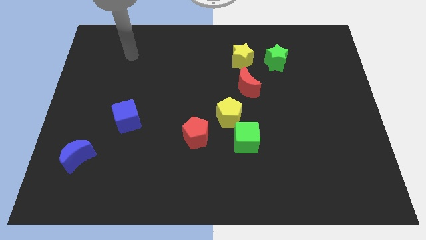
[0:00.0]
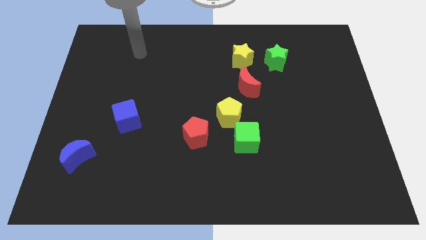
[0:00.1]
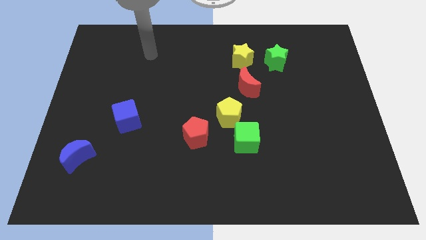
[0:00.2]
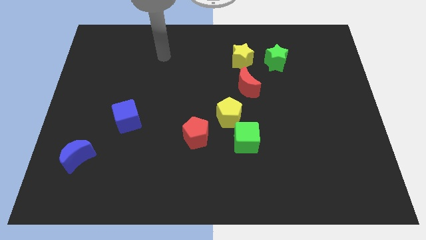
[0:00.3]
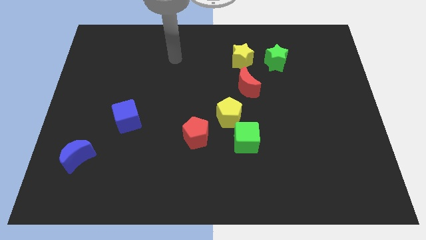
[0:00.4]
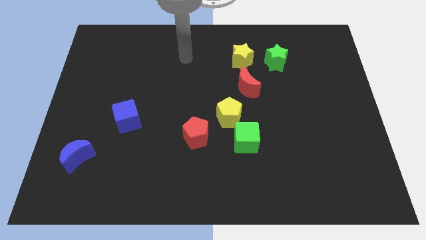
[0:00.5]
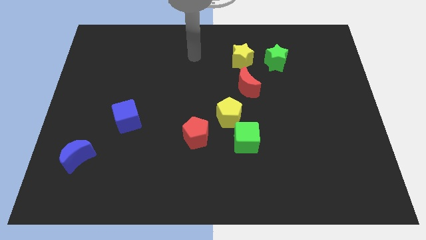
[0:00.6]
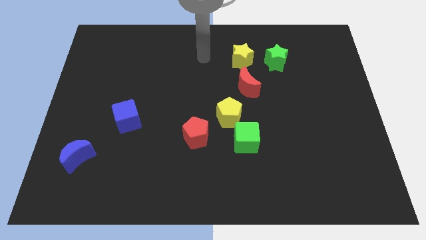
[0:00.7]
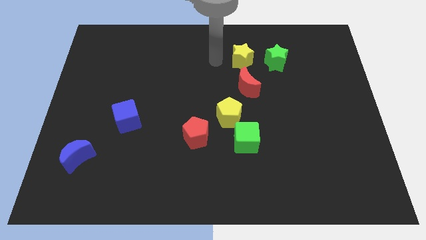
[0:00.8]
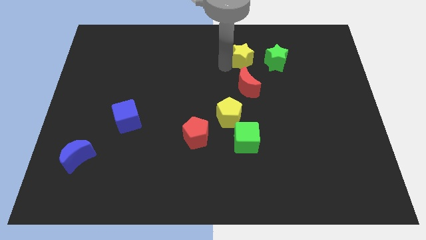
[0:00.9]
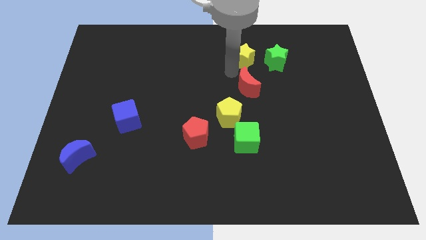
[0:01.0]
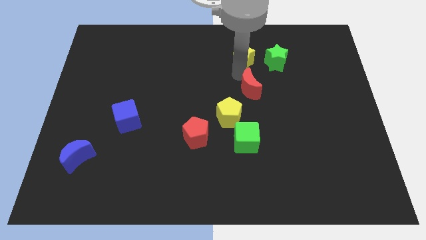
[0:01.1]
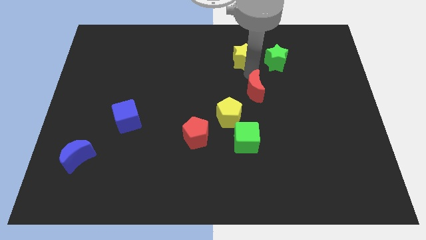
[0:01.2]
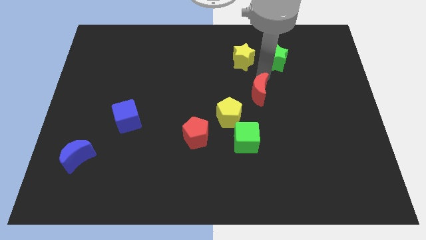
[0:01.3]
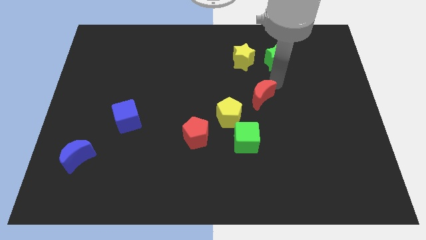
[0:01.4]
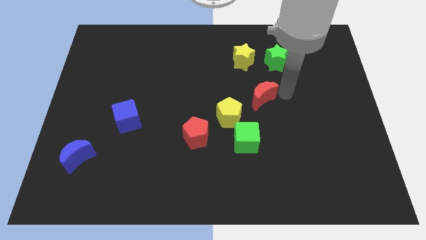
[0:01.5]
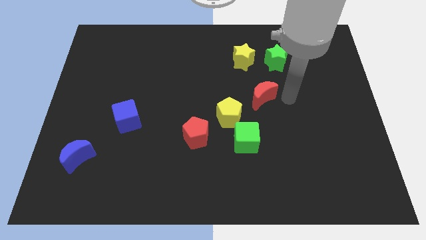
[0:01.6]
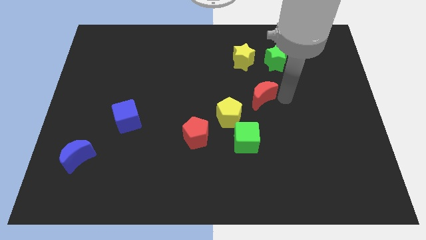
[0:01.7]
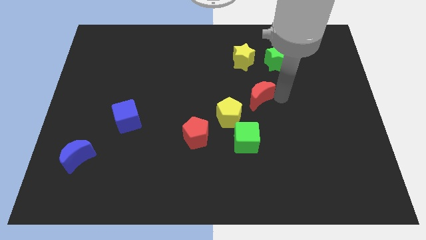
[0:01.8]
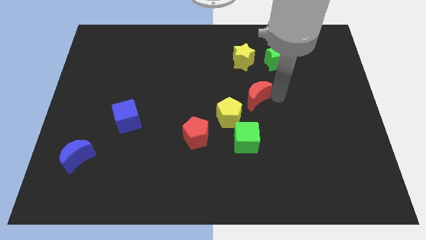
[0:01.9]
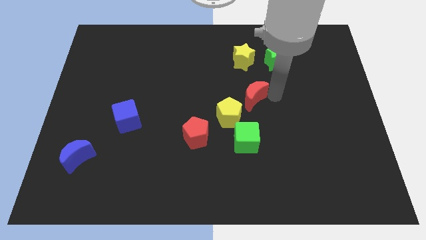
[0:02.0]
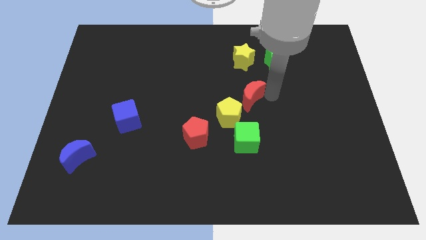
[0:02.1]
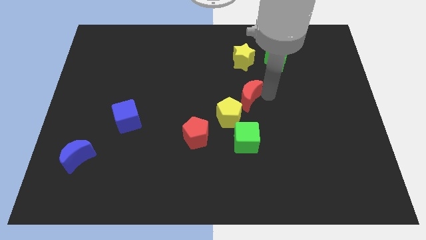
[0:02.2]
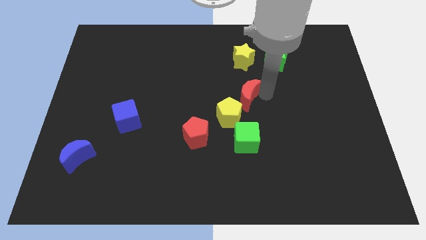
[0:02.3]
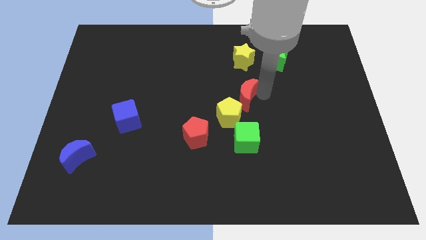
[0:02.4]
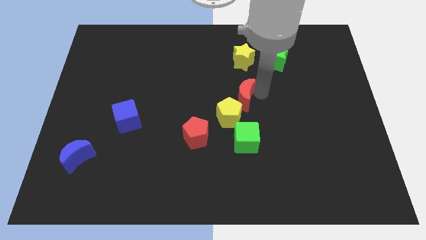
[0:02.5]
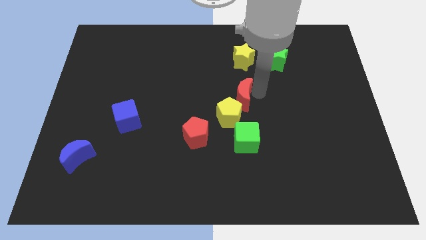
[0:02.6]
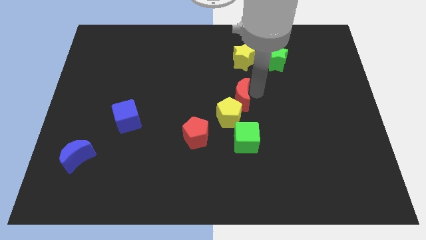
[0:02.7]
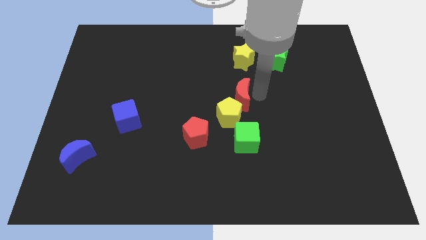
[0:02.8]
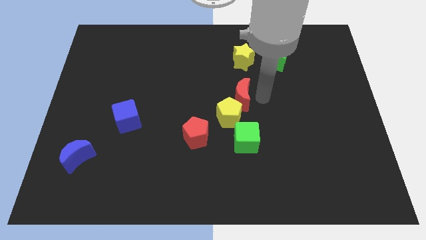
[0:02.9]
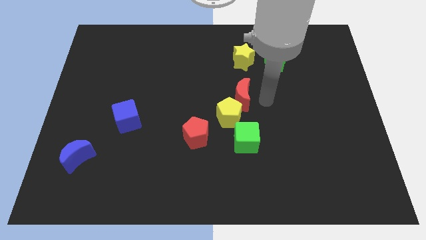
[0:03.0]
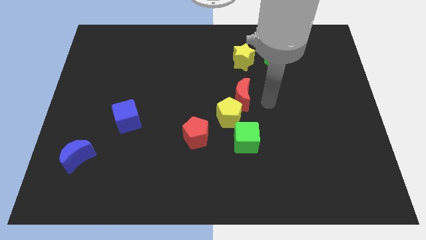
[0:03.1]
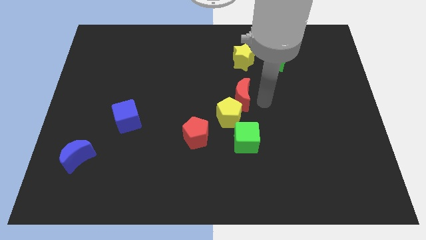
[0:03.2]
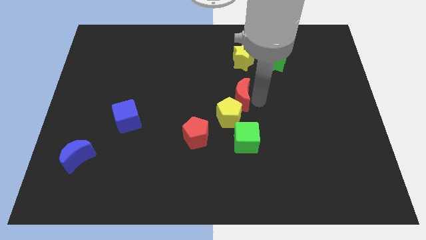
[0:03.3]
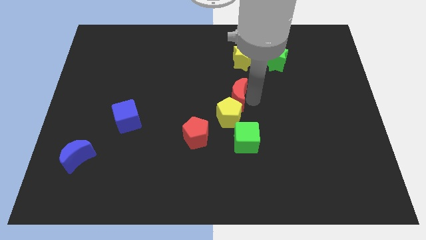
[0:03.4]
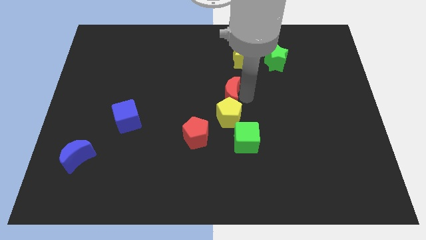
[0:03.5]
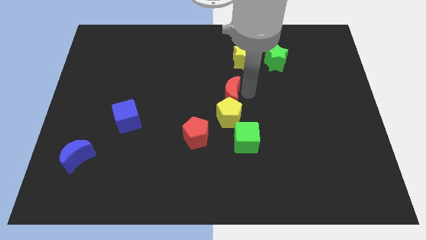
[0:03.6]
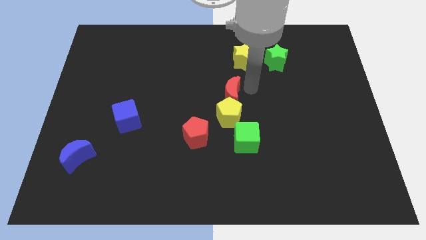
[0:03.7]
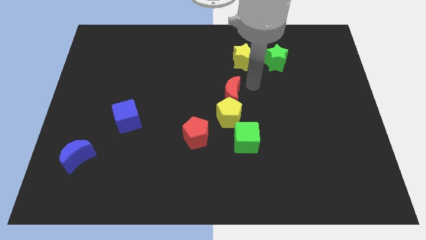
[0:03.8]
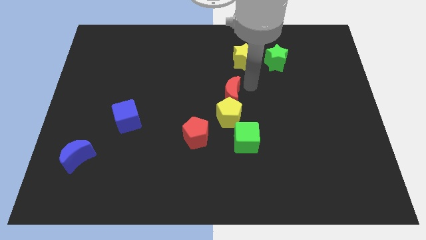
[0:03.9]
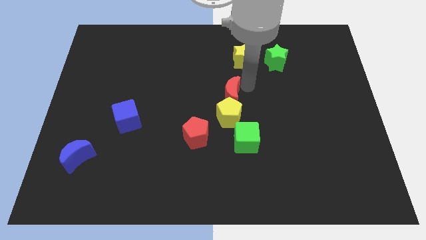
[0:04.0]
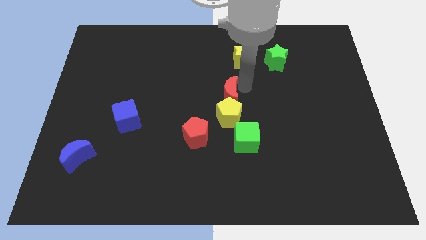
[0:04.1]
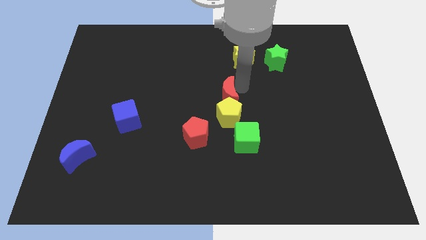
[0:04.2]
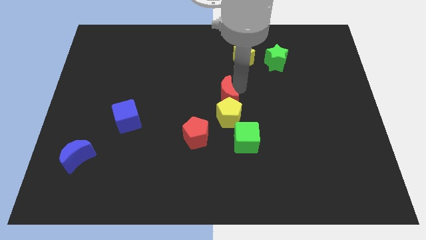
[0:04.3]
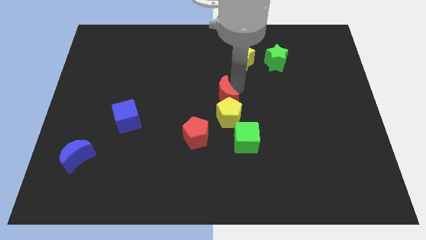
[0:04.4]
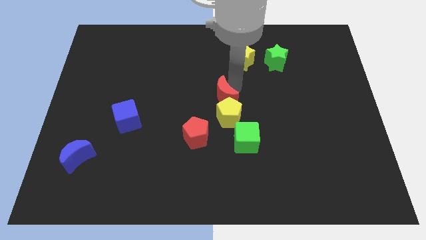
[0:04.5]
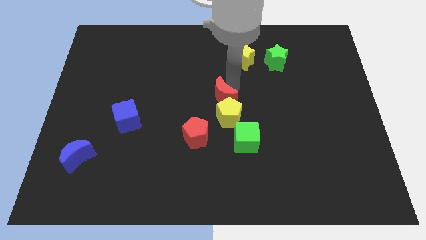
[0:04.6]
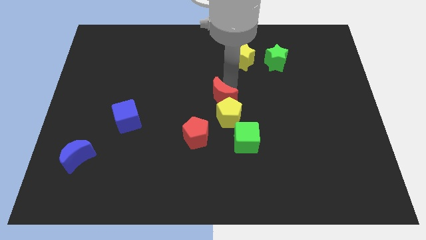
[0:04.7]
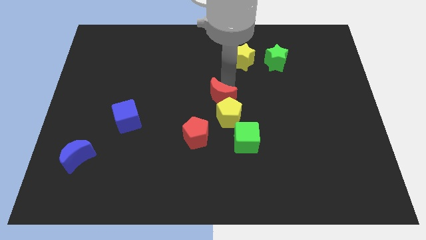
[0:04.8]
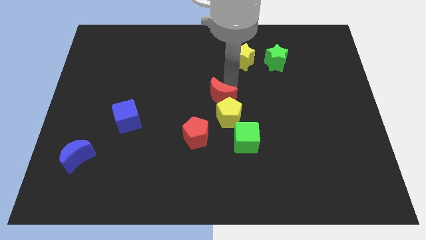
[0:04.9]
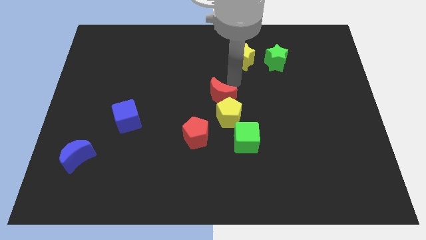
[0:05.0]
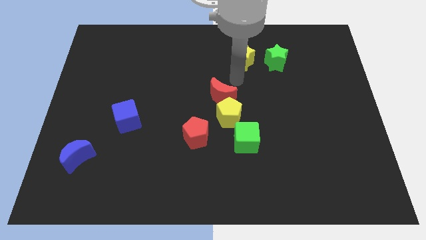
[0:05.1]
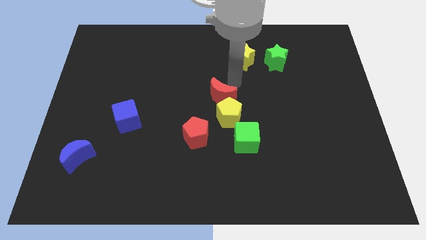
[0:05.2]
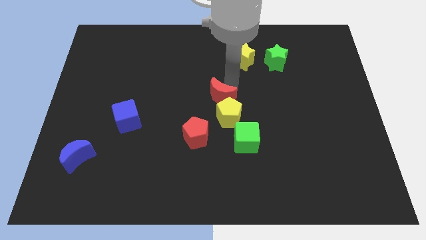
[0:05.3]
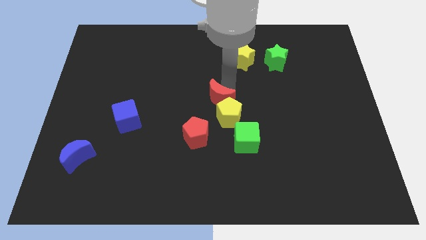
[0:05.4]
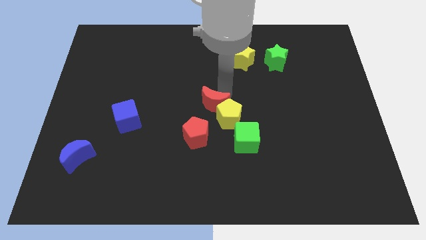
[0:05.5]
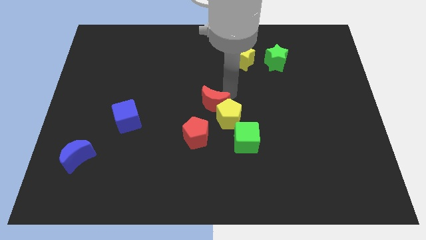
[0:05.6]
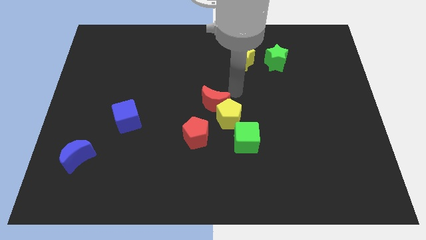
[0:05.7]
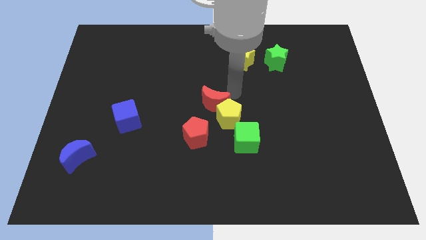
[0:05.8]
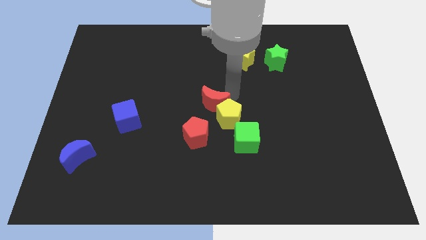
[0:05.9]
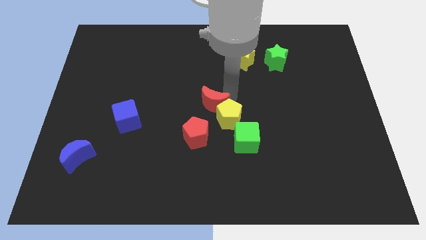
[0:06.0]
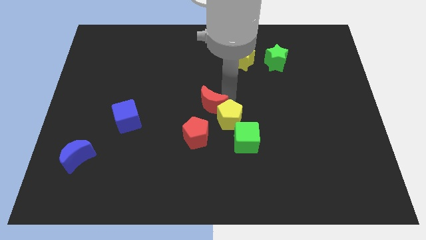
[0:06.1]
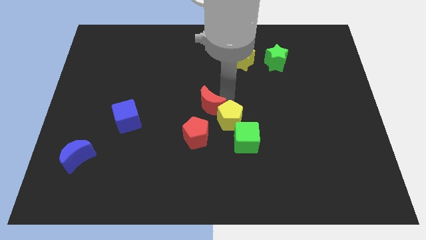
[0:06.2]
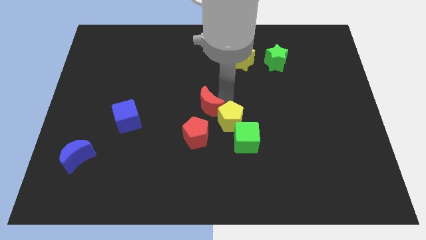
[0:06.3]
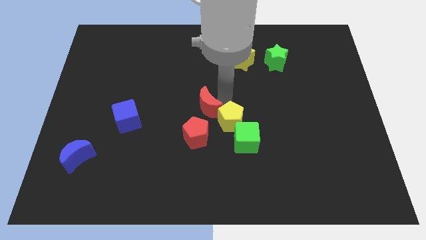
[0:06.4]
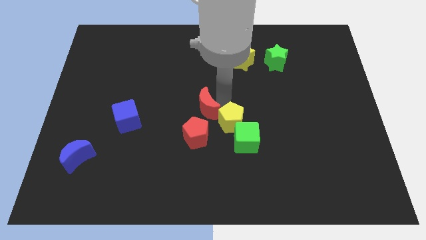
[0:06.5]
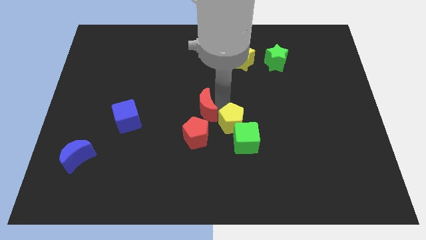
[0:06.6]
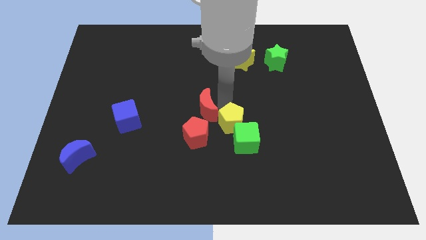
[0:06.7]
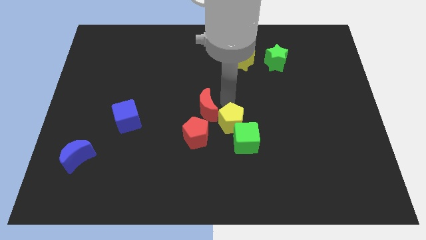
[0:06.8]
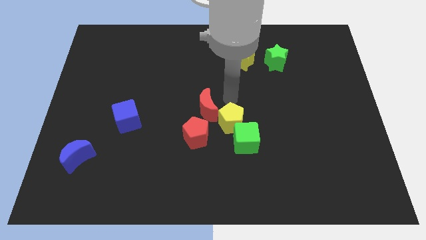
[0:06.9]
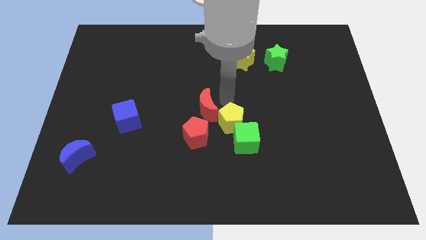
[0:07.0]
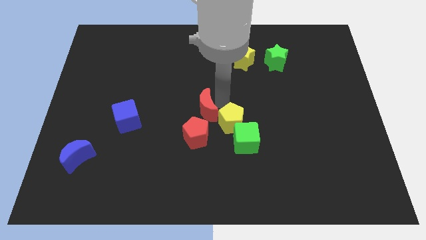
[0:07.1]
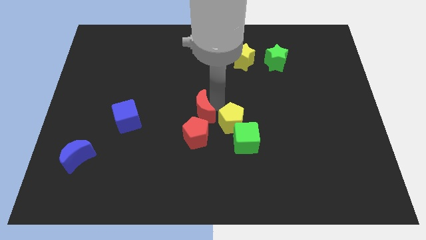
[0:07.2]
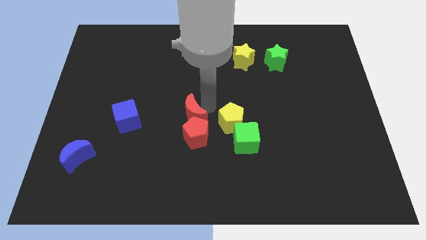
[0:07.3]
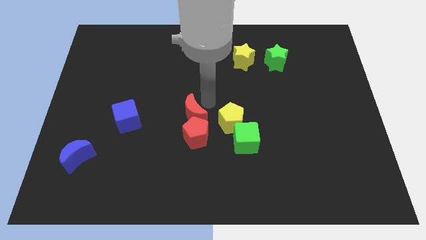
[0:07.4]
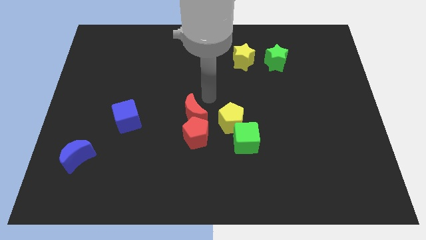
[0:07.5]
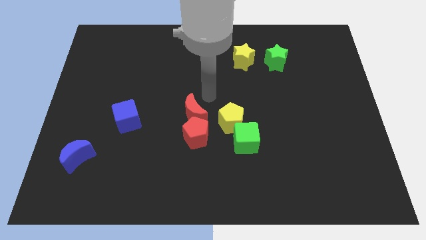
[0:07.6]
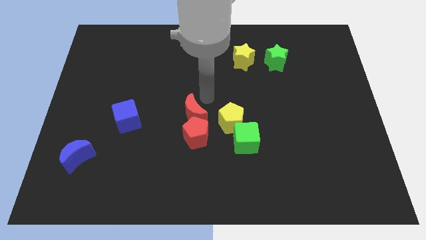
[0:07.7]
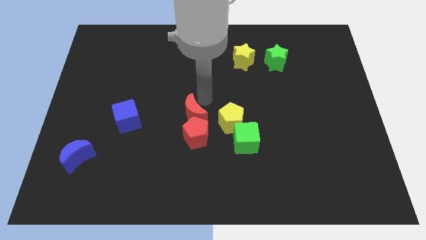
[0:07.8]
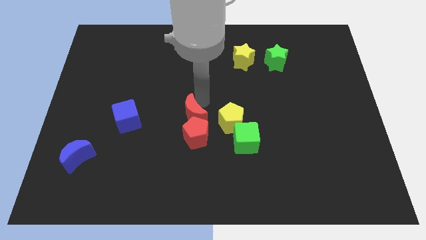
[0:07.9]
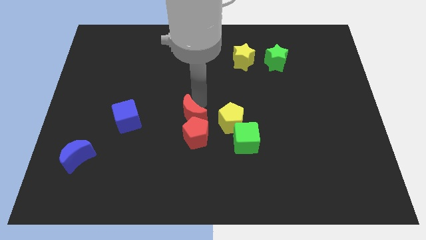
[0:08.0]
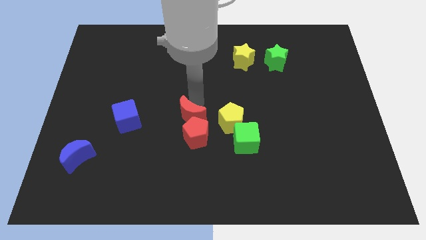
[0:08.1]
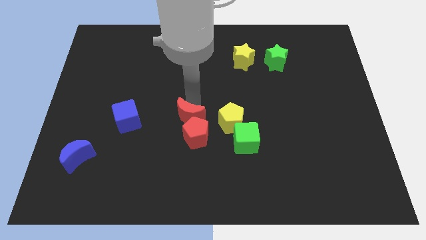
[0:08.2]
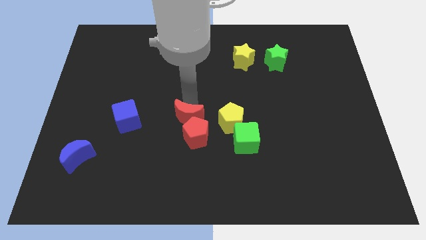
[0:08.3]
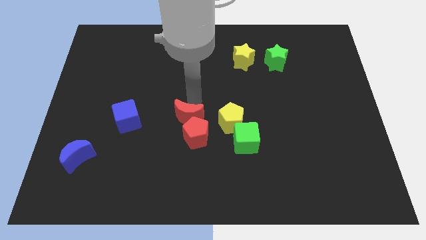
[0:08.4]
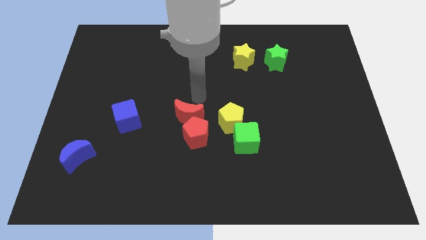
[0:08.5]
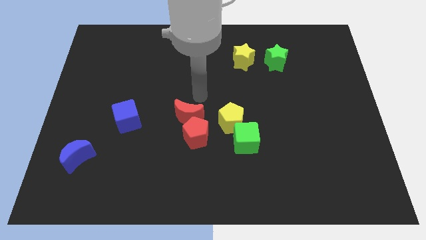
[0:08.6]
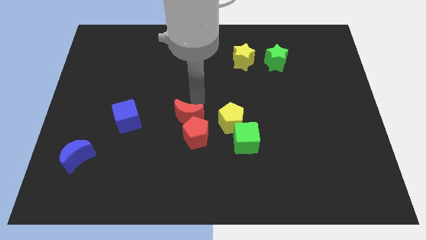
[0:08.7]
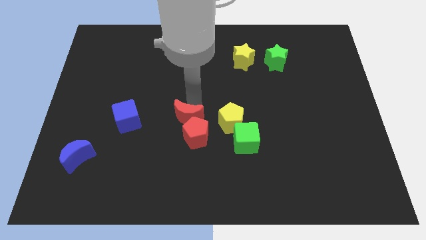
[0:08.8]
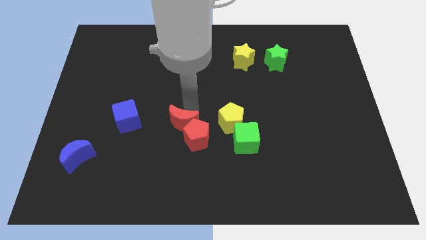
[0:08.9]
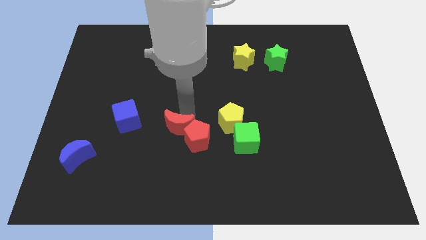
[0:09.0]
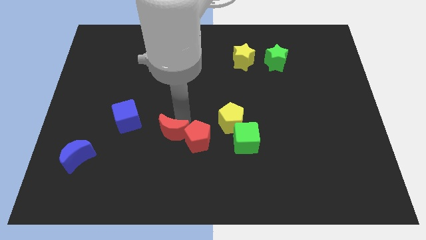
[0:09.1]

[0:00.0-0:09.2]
slide the red moon diagonally down and to the left
